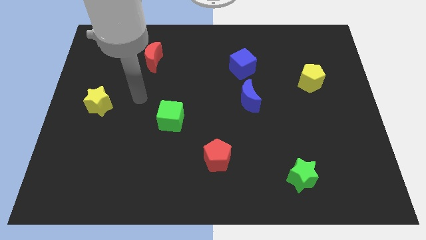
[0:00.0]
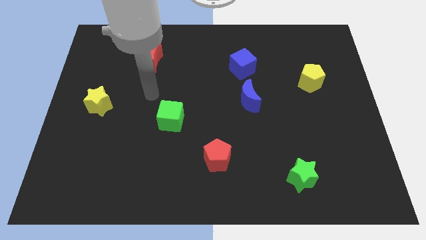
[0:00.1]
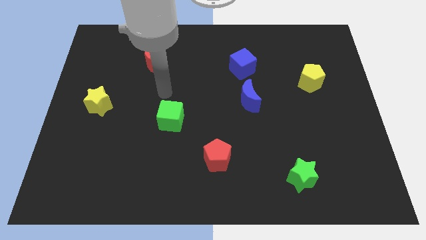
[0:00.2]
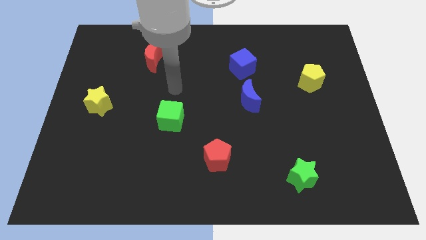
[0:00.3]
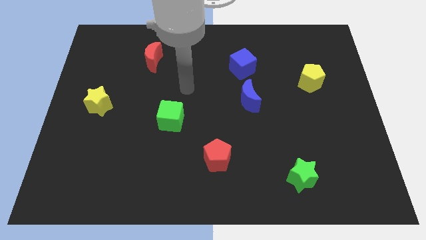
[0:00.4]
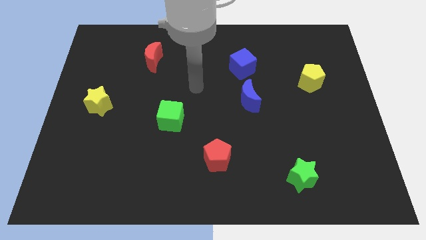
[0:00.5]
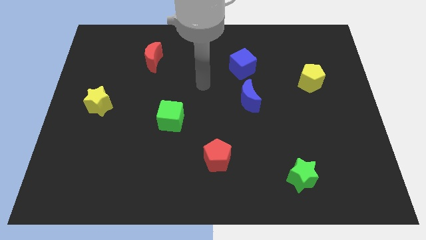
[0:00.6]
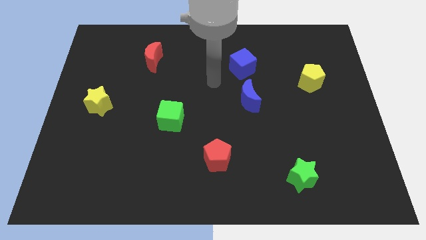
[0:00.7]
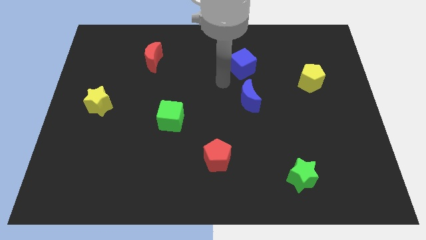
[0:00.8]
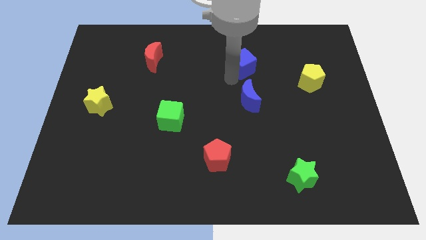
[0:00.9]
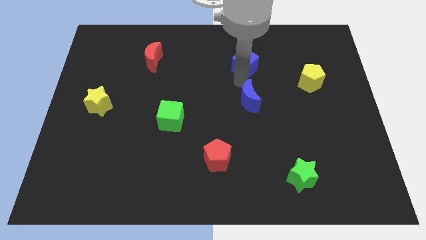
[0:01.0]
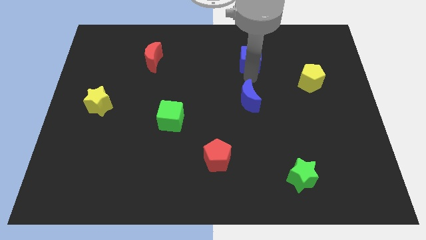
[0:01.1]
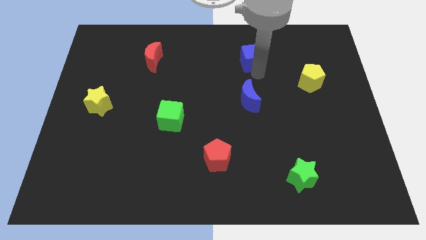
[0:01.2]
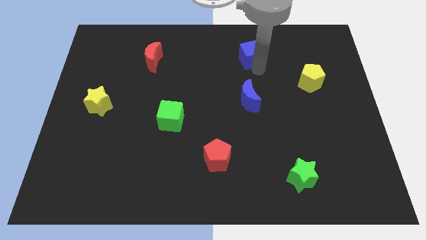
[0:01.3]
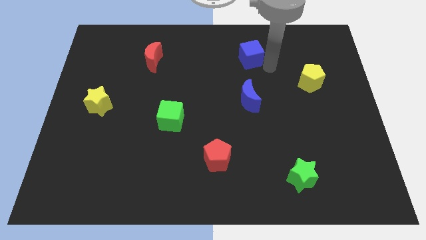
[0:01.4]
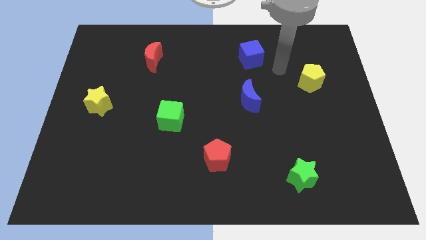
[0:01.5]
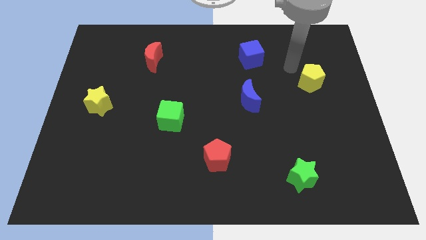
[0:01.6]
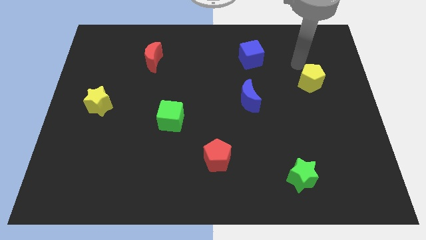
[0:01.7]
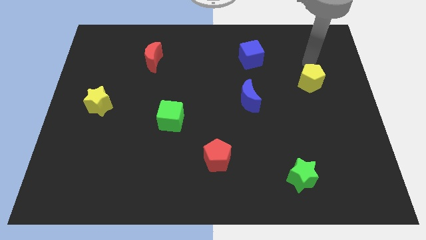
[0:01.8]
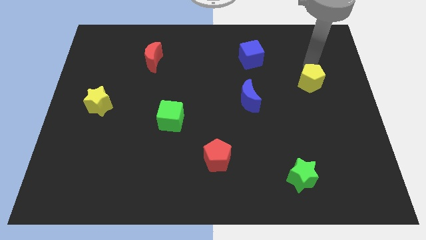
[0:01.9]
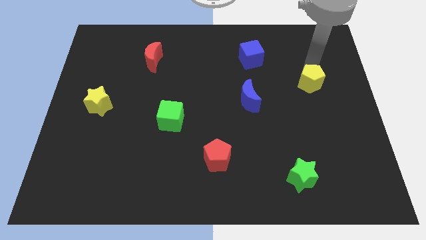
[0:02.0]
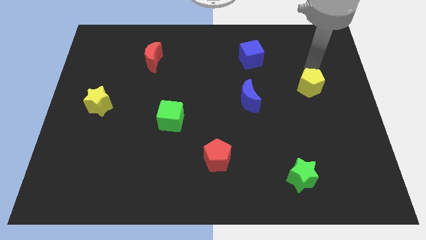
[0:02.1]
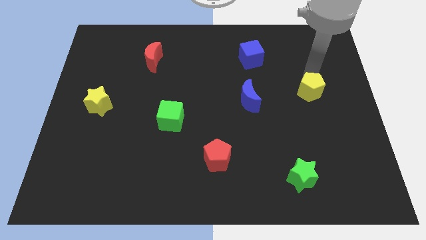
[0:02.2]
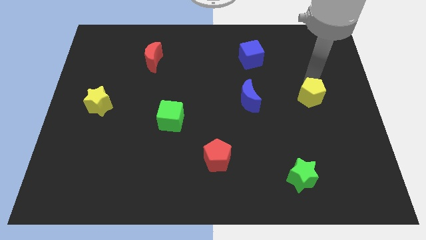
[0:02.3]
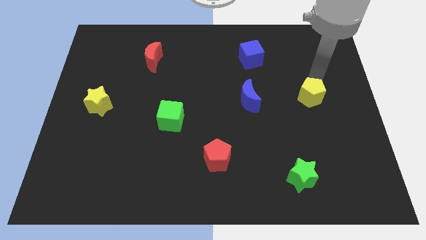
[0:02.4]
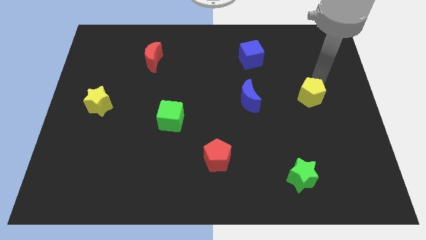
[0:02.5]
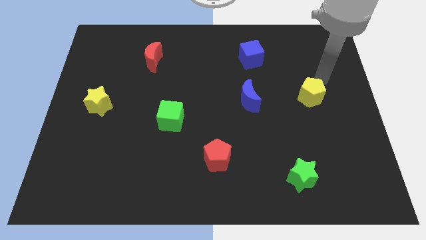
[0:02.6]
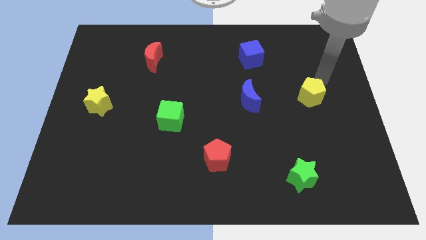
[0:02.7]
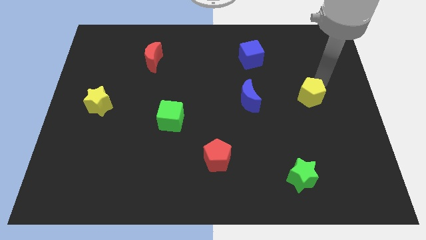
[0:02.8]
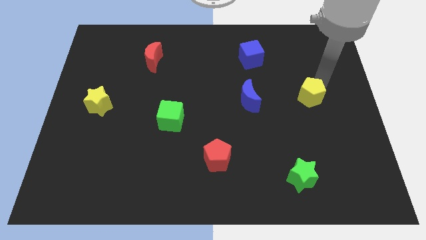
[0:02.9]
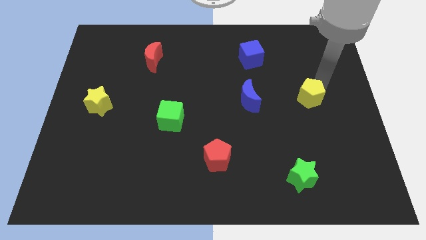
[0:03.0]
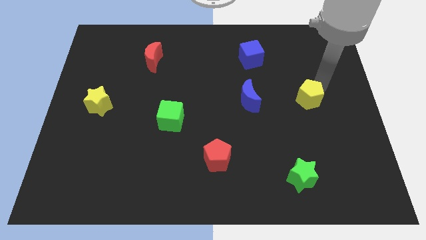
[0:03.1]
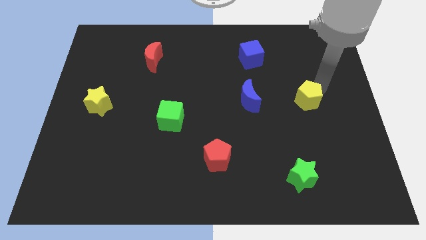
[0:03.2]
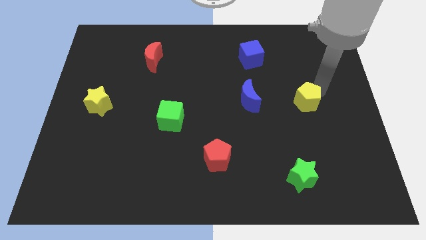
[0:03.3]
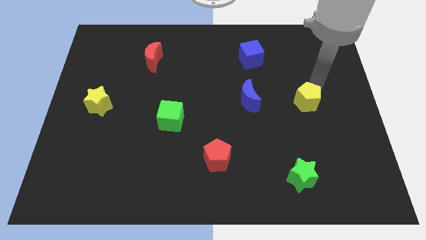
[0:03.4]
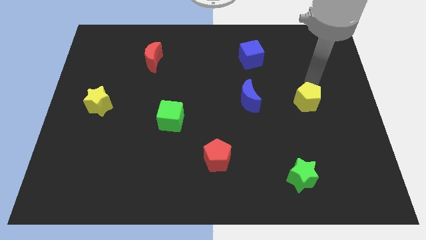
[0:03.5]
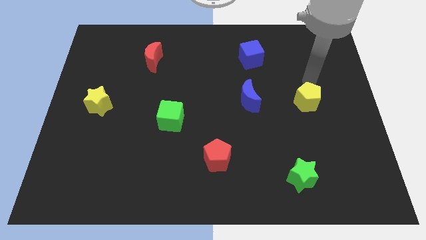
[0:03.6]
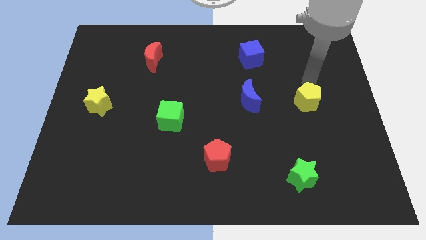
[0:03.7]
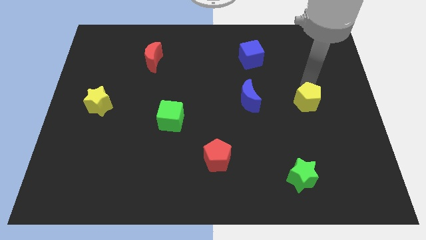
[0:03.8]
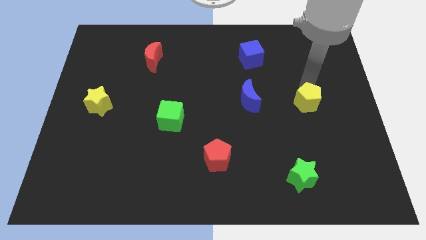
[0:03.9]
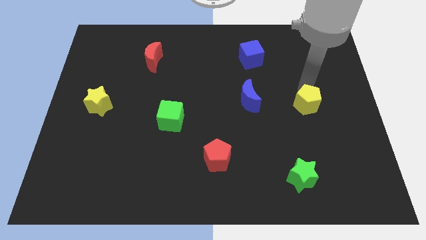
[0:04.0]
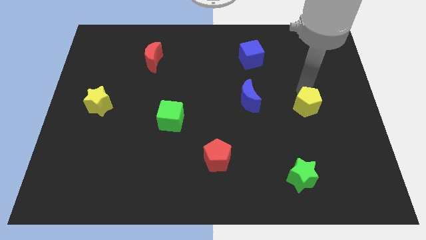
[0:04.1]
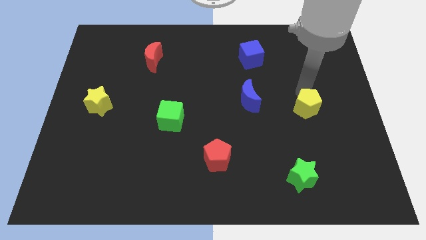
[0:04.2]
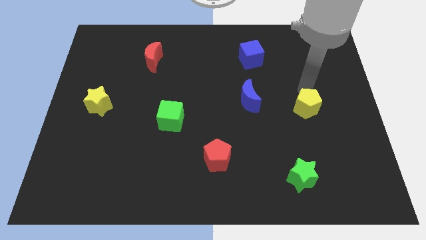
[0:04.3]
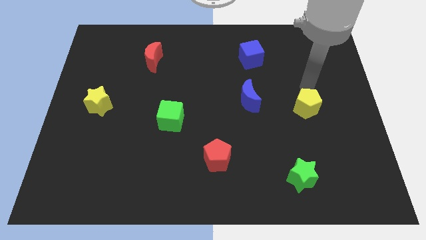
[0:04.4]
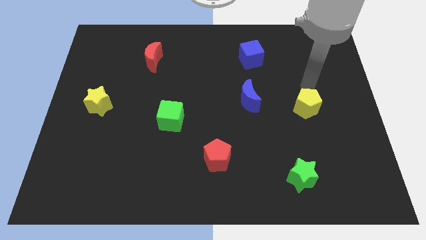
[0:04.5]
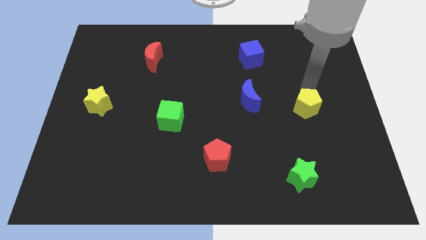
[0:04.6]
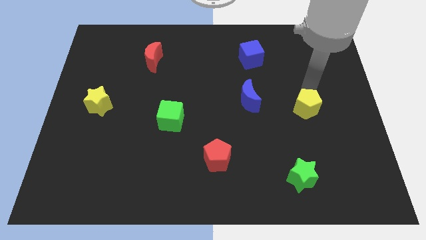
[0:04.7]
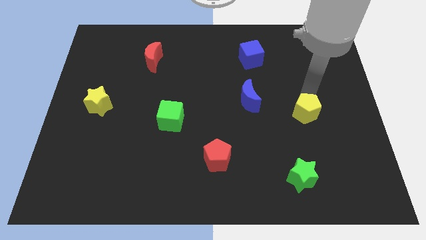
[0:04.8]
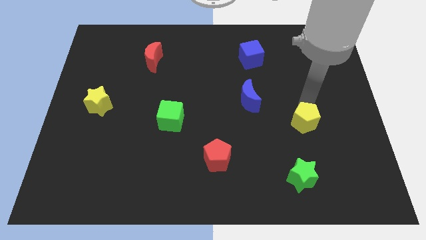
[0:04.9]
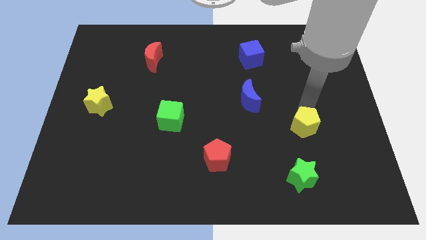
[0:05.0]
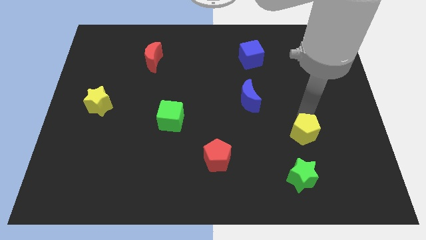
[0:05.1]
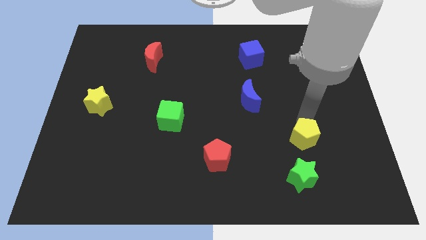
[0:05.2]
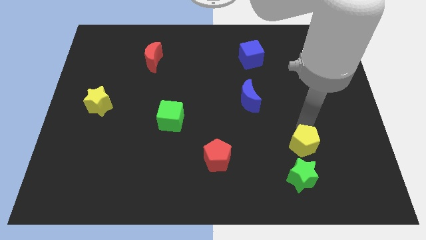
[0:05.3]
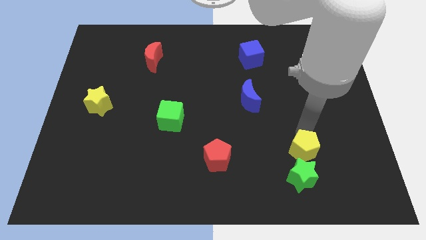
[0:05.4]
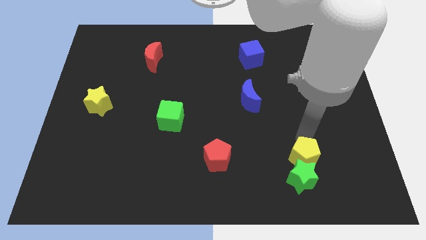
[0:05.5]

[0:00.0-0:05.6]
move the yellow pentagon next to the green star

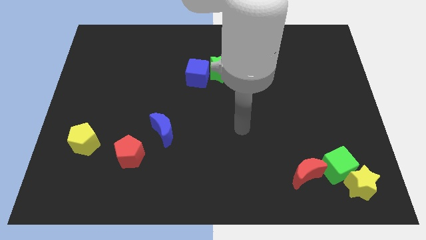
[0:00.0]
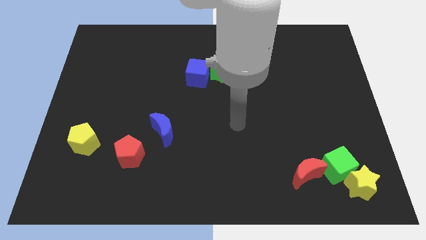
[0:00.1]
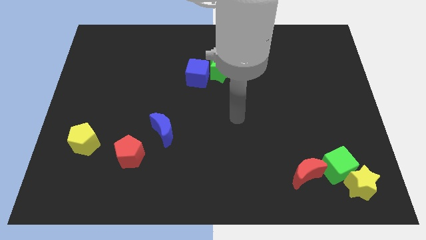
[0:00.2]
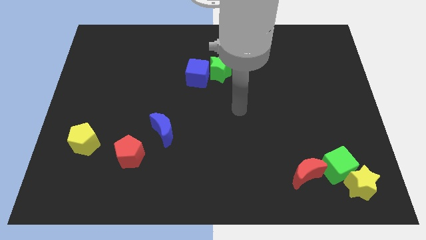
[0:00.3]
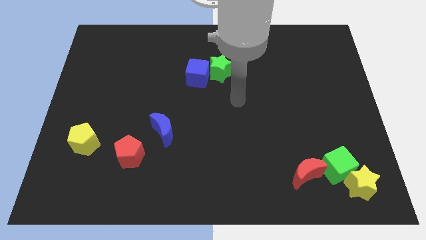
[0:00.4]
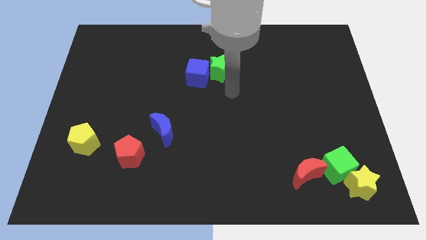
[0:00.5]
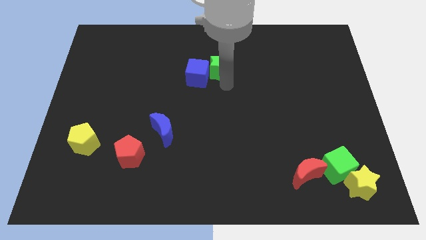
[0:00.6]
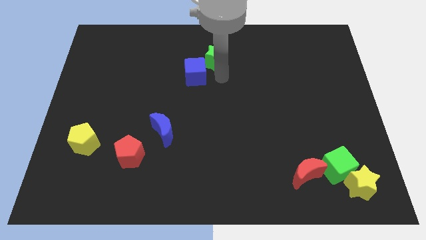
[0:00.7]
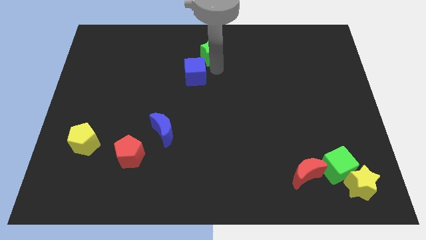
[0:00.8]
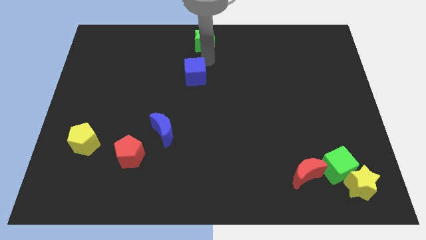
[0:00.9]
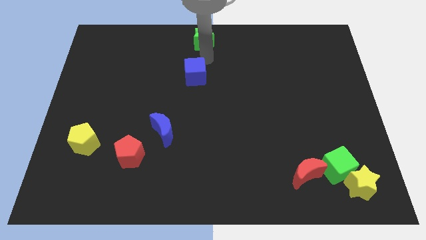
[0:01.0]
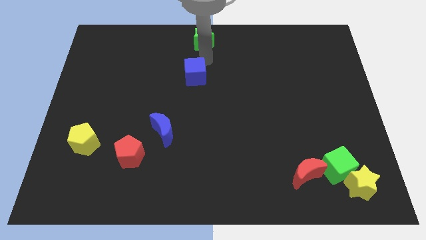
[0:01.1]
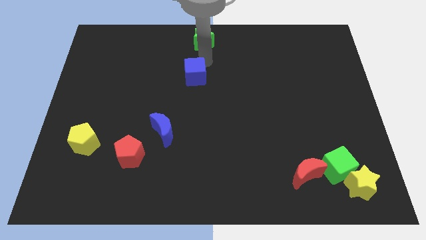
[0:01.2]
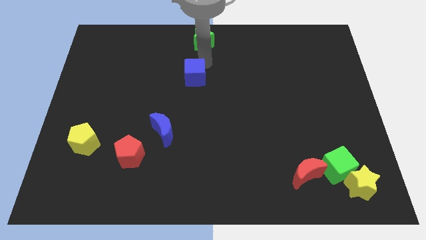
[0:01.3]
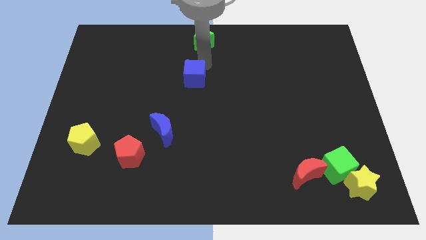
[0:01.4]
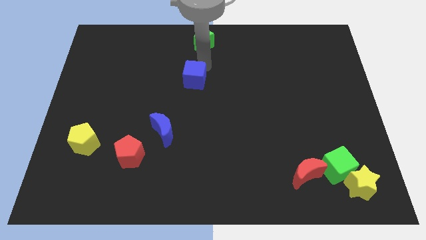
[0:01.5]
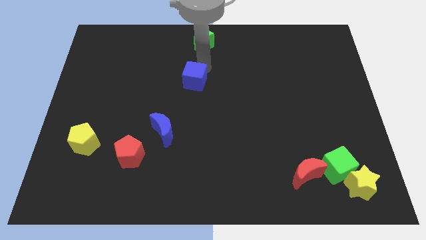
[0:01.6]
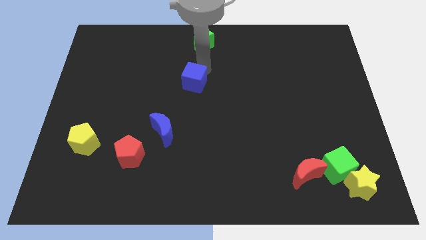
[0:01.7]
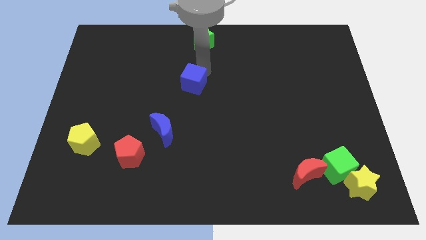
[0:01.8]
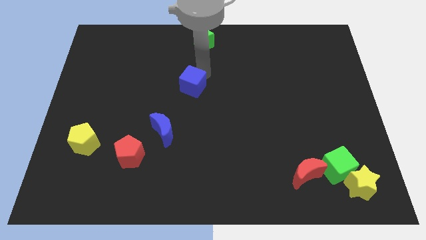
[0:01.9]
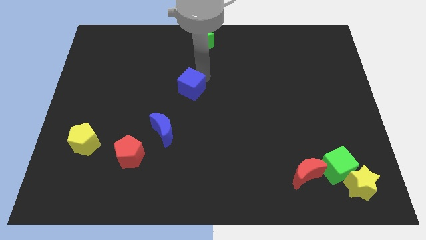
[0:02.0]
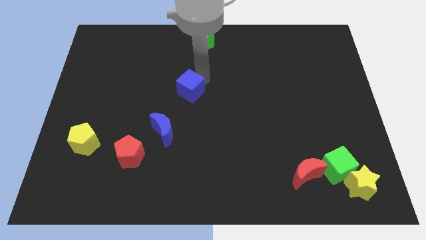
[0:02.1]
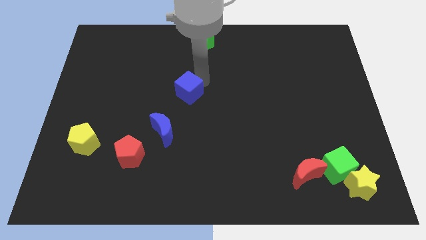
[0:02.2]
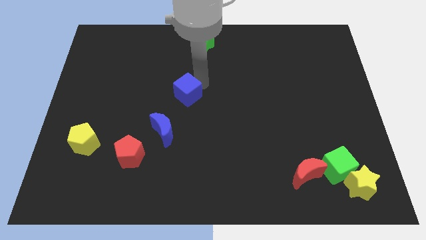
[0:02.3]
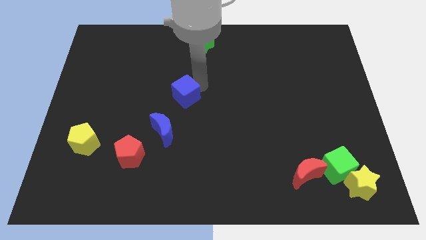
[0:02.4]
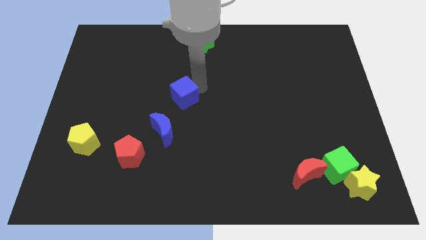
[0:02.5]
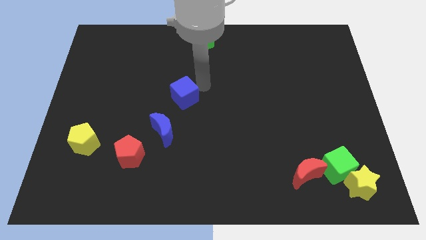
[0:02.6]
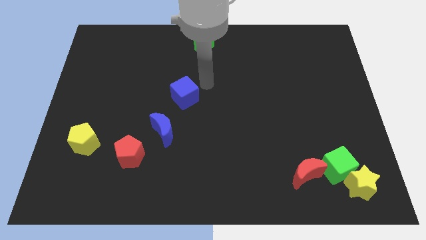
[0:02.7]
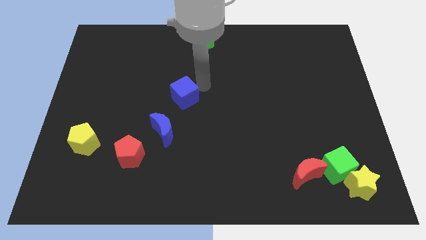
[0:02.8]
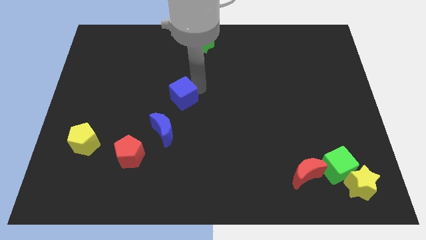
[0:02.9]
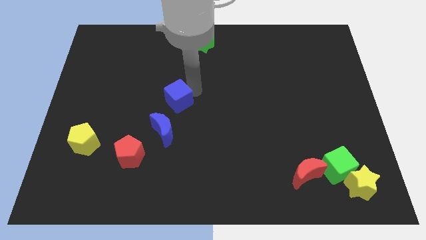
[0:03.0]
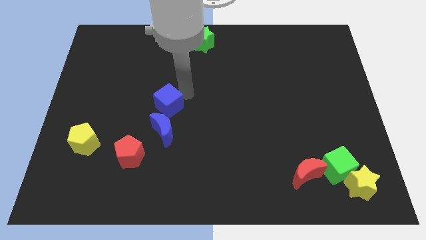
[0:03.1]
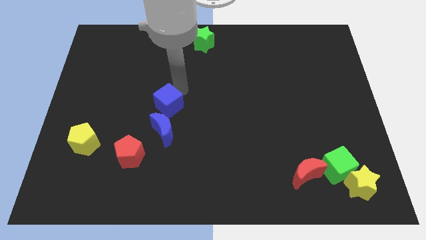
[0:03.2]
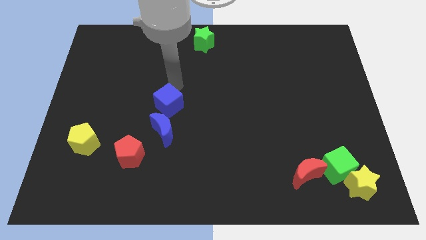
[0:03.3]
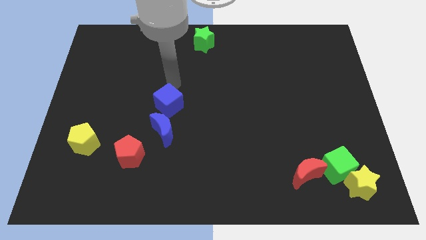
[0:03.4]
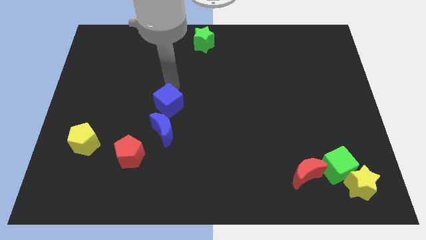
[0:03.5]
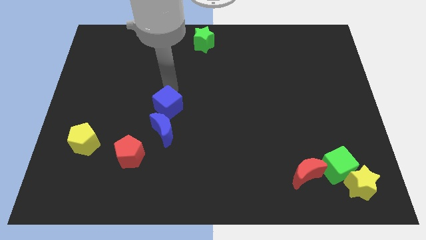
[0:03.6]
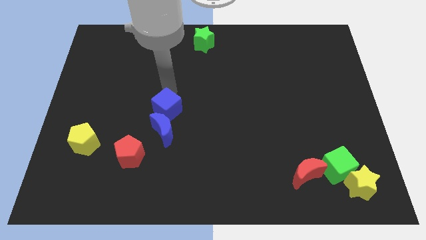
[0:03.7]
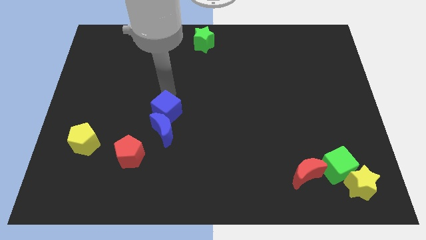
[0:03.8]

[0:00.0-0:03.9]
push the blue cube to the blue moon
